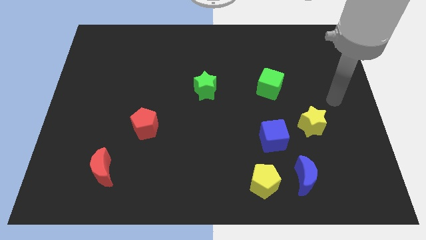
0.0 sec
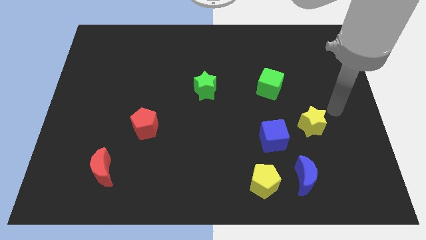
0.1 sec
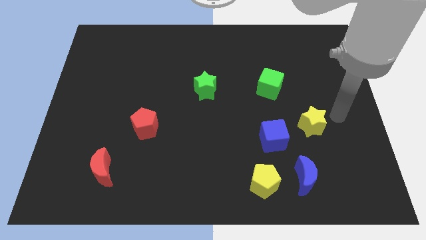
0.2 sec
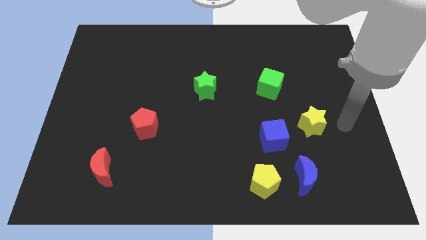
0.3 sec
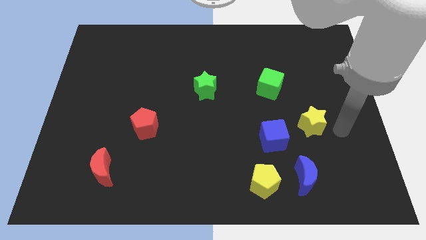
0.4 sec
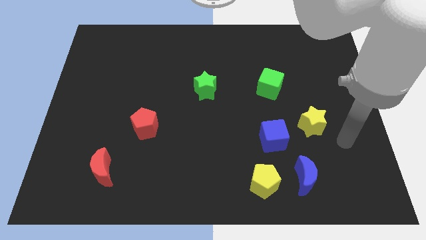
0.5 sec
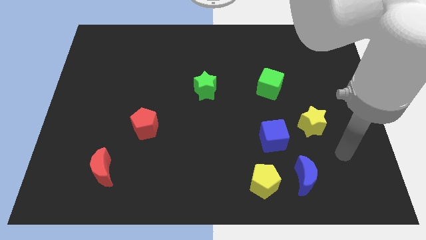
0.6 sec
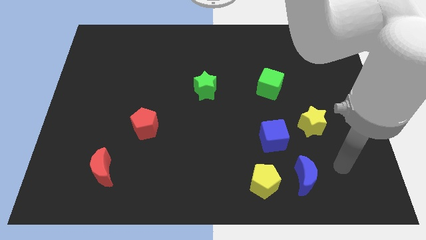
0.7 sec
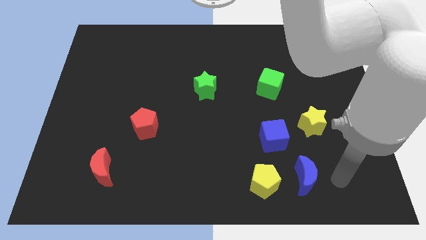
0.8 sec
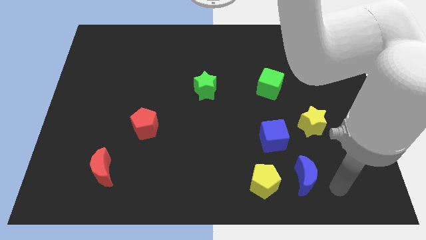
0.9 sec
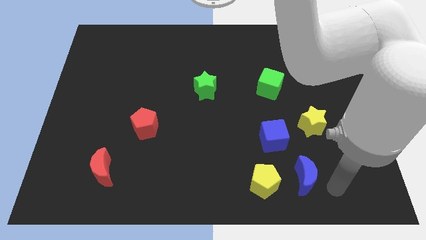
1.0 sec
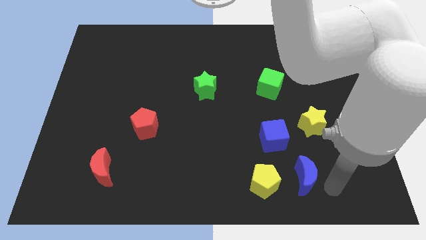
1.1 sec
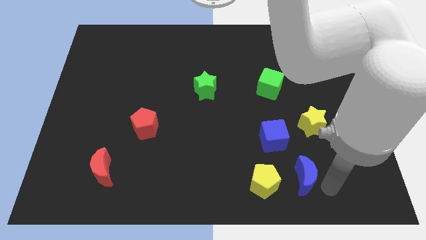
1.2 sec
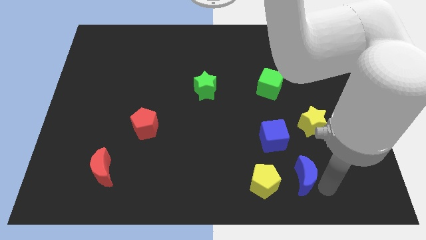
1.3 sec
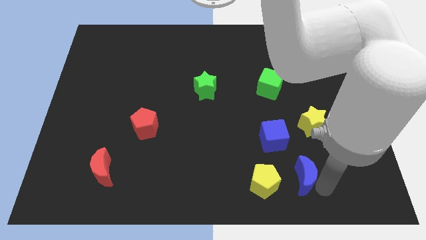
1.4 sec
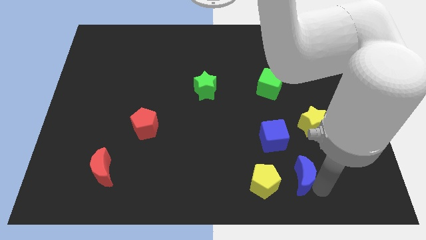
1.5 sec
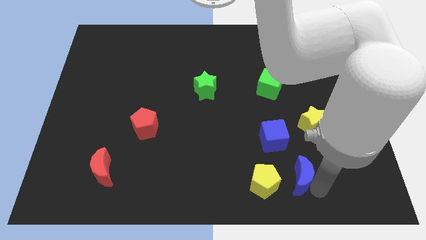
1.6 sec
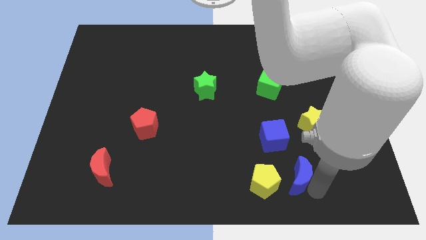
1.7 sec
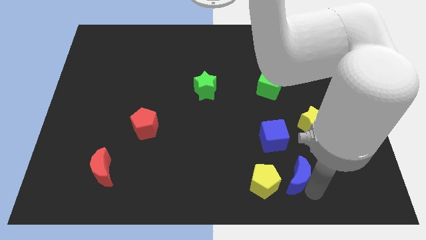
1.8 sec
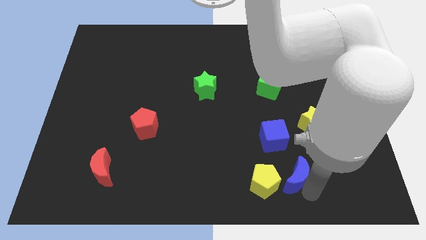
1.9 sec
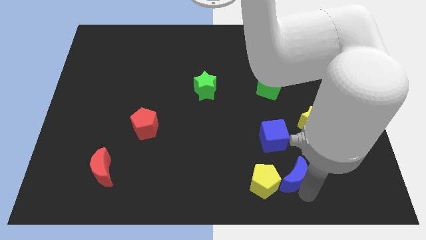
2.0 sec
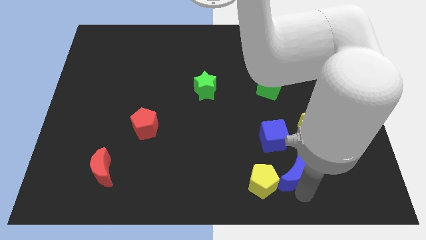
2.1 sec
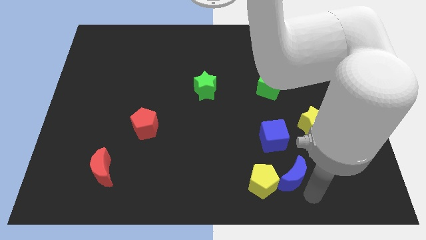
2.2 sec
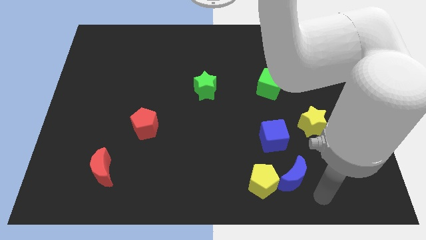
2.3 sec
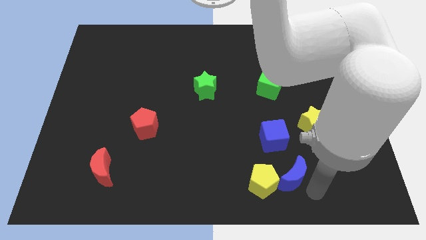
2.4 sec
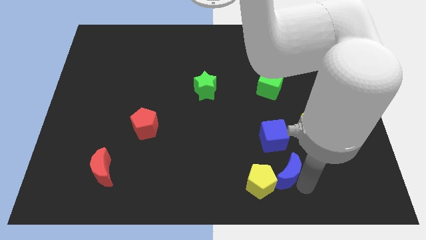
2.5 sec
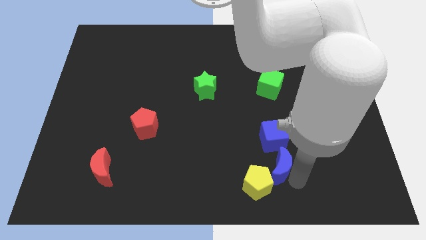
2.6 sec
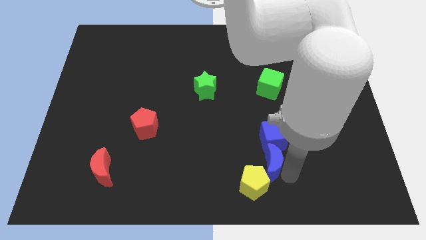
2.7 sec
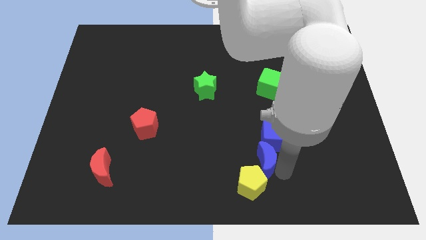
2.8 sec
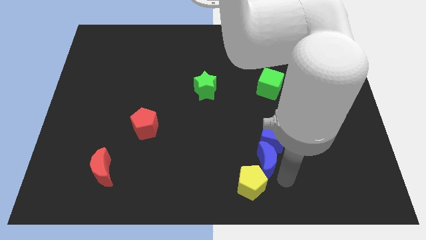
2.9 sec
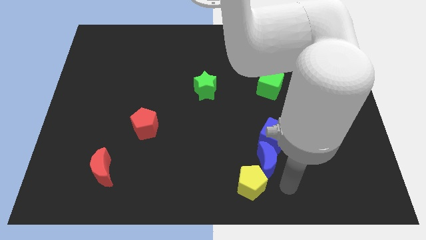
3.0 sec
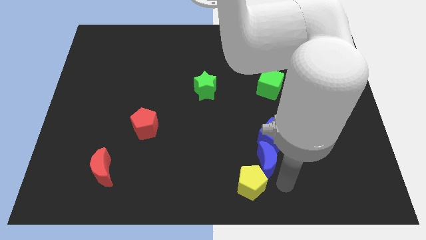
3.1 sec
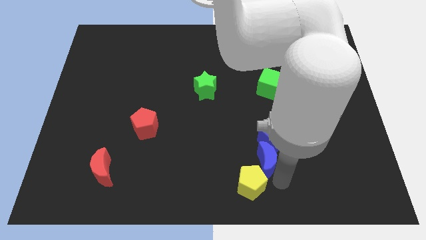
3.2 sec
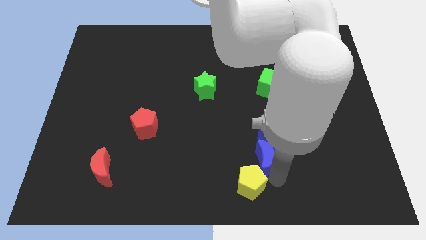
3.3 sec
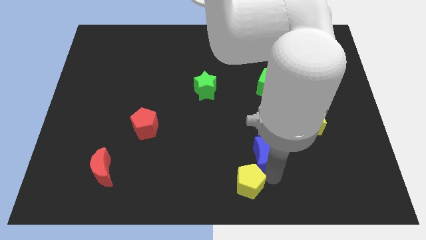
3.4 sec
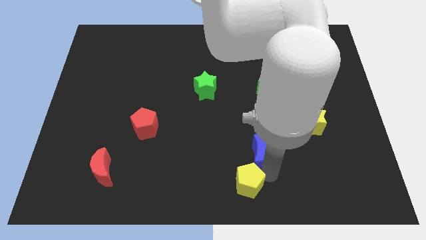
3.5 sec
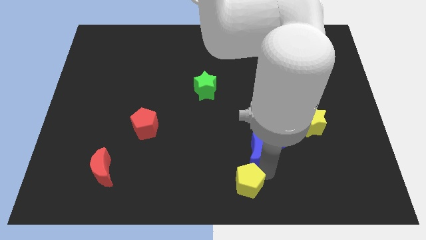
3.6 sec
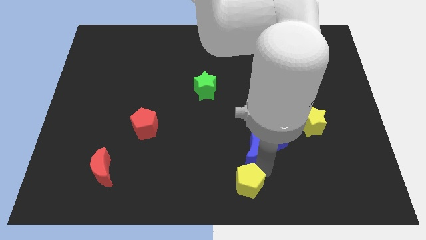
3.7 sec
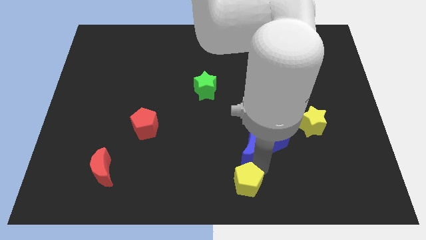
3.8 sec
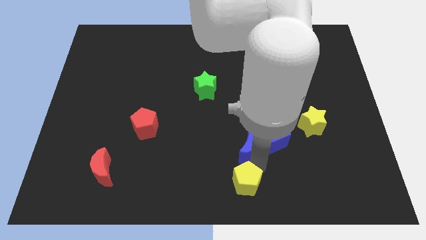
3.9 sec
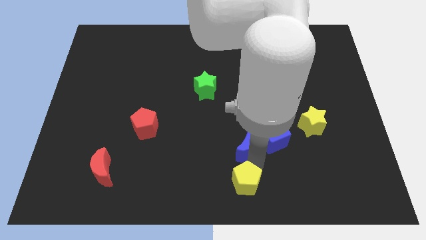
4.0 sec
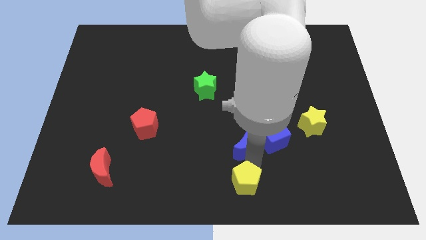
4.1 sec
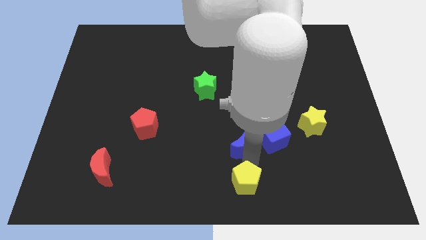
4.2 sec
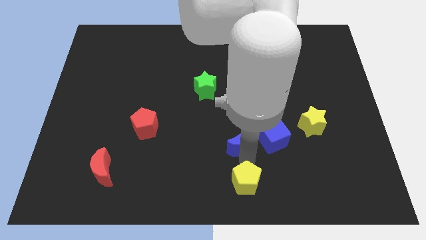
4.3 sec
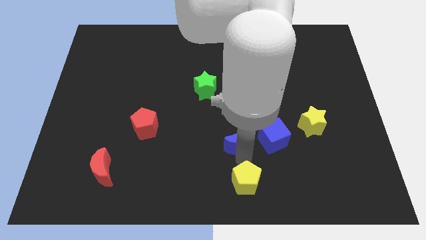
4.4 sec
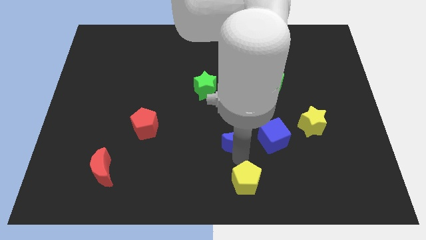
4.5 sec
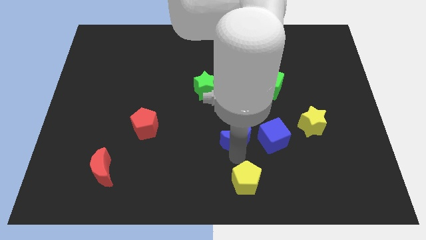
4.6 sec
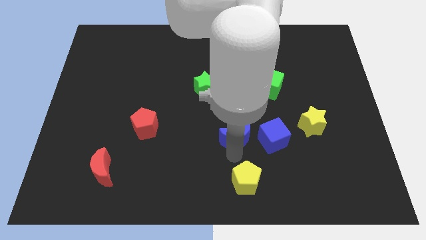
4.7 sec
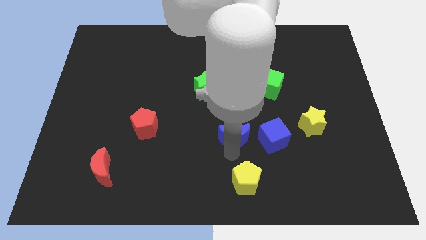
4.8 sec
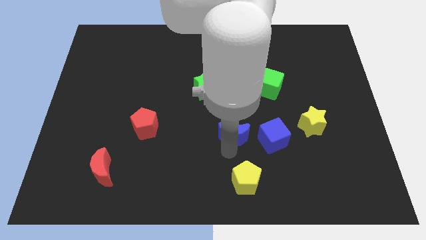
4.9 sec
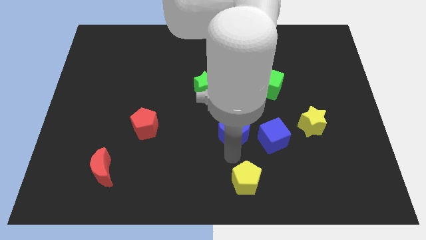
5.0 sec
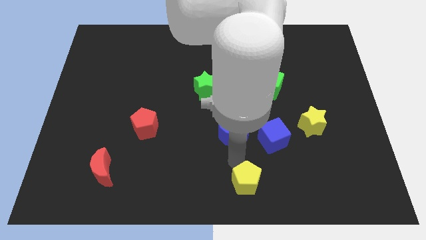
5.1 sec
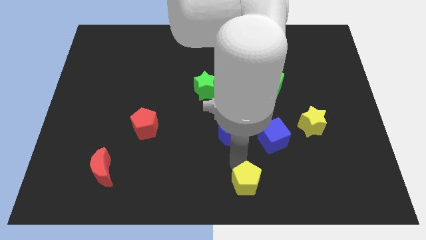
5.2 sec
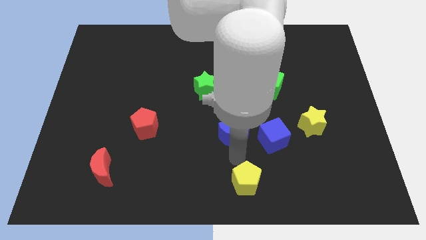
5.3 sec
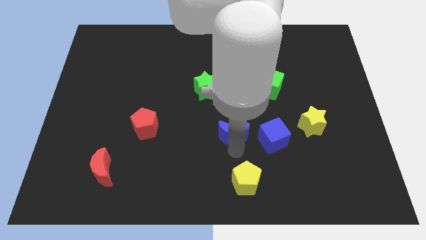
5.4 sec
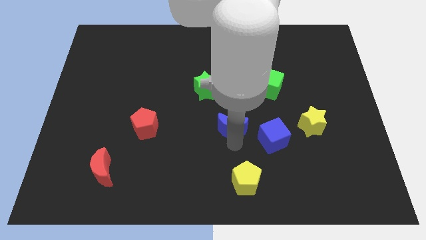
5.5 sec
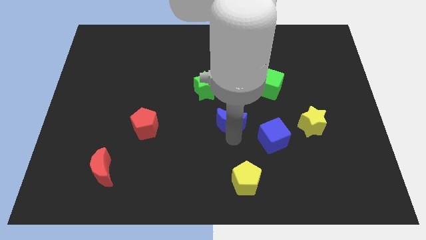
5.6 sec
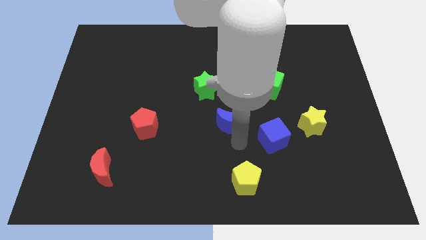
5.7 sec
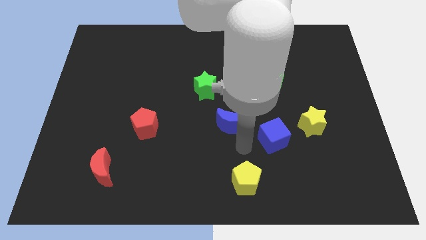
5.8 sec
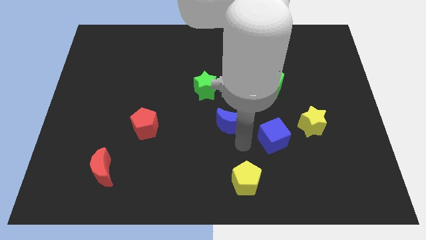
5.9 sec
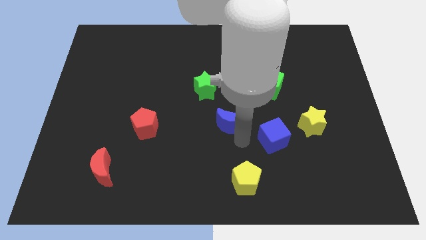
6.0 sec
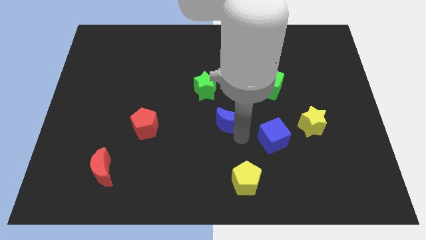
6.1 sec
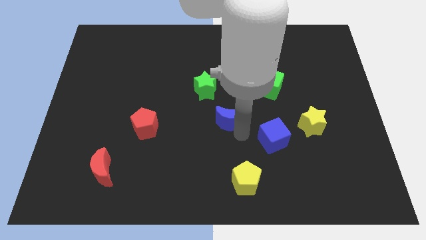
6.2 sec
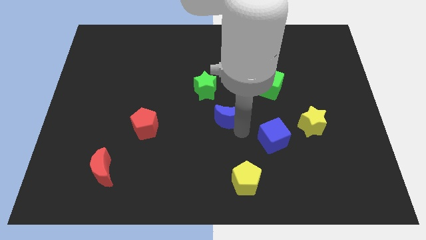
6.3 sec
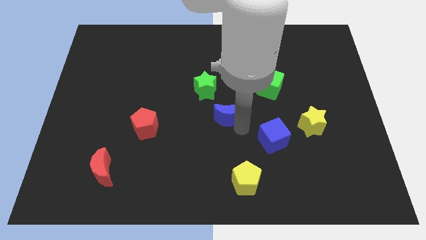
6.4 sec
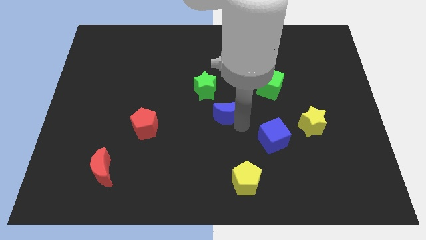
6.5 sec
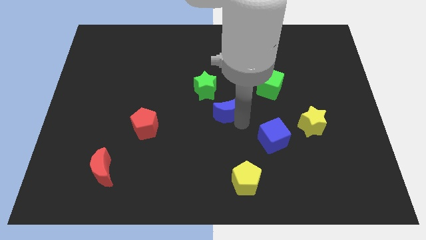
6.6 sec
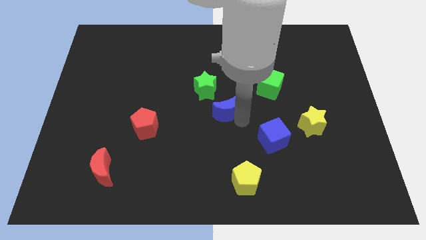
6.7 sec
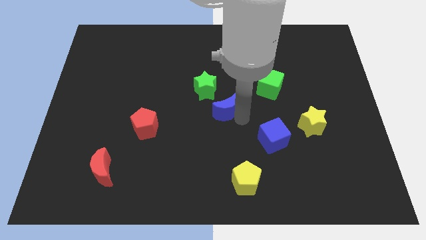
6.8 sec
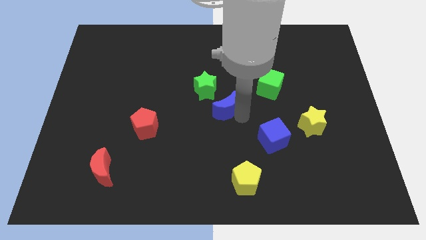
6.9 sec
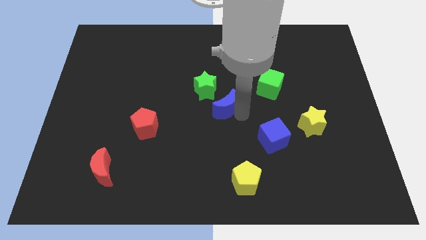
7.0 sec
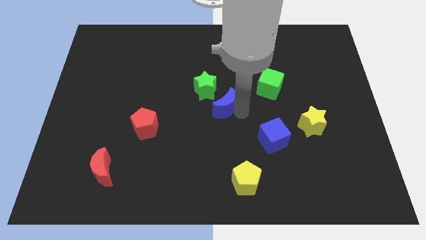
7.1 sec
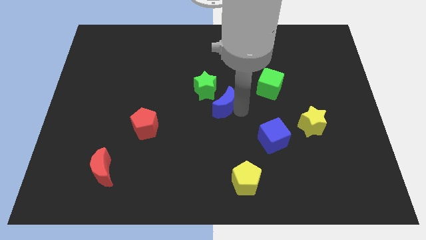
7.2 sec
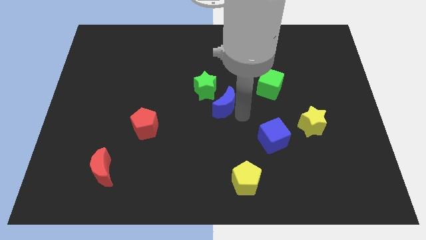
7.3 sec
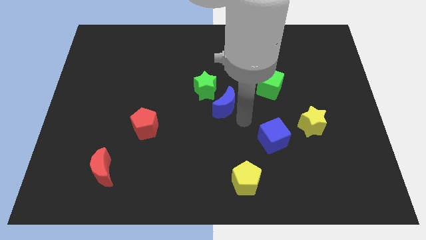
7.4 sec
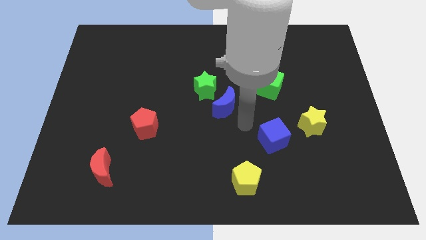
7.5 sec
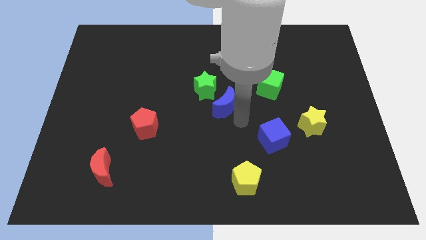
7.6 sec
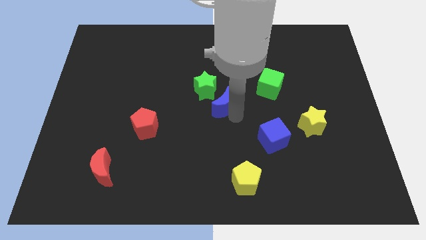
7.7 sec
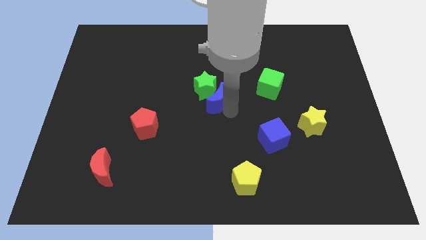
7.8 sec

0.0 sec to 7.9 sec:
push the blue moon close to the green star
